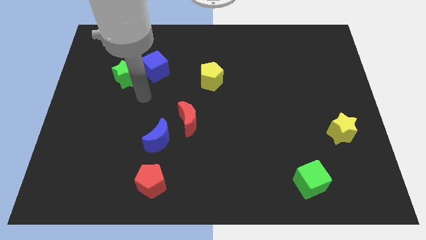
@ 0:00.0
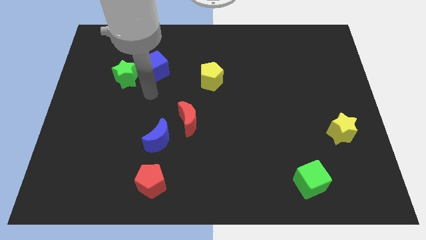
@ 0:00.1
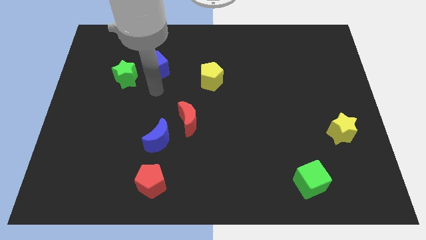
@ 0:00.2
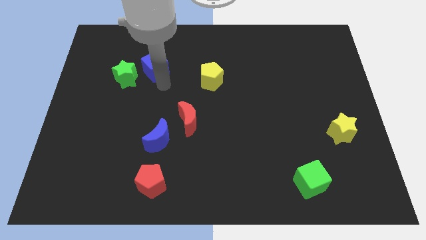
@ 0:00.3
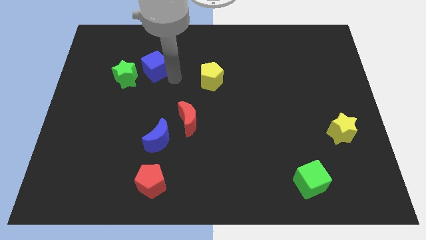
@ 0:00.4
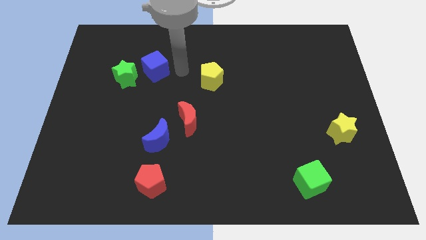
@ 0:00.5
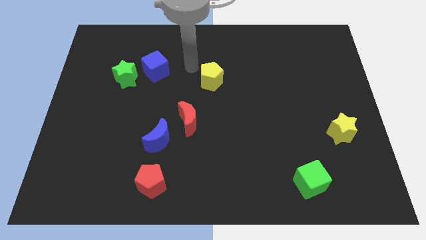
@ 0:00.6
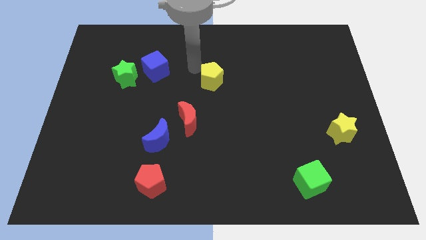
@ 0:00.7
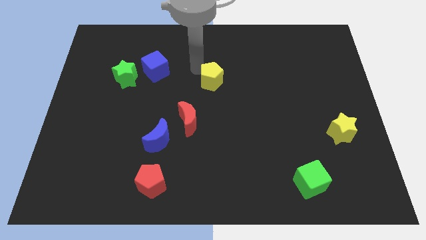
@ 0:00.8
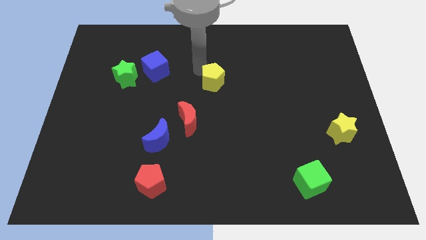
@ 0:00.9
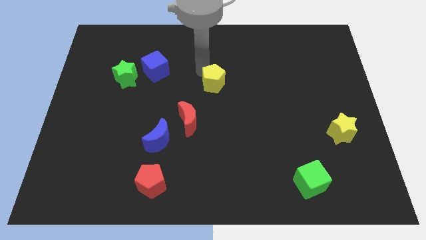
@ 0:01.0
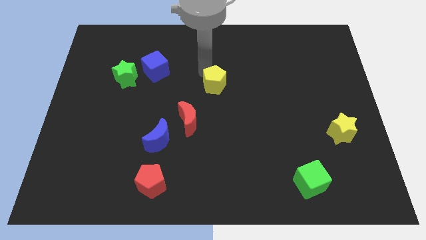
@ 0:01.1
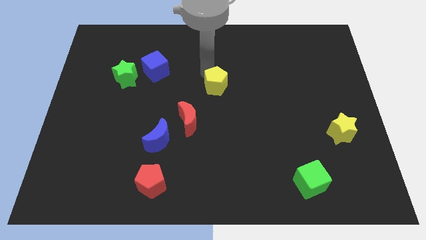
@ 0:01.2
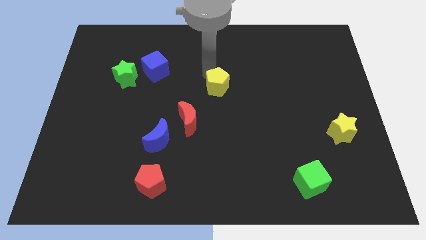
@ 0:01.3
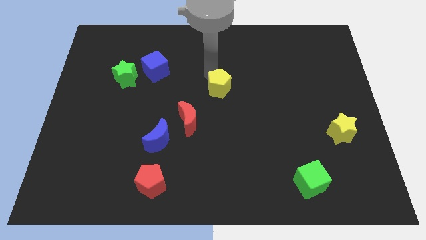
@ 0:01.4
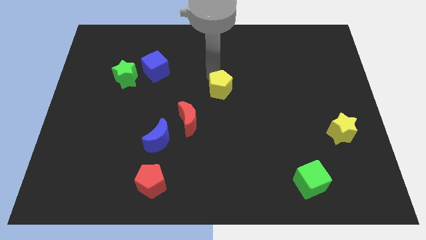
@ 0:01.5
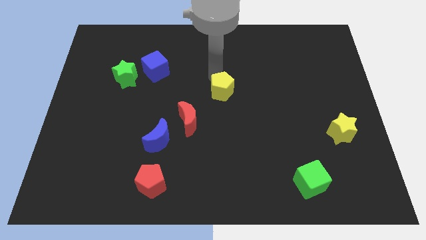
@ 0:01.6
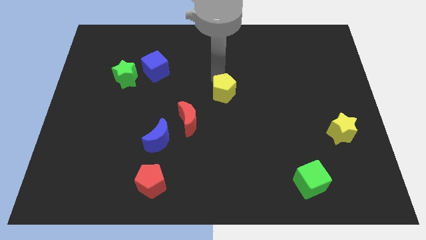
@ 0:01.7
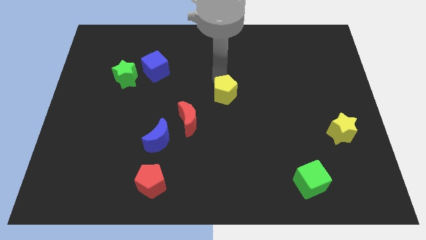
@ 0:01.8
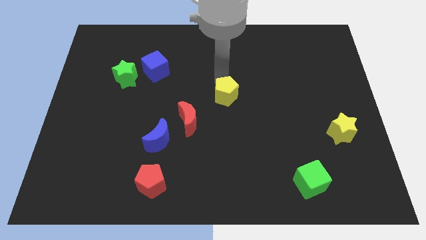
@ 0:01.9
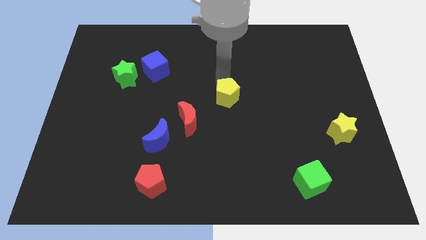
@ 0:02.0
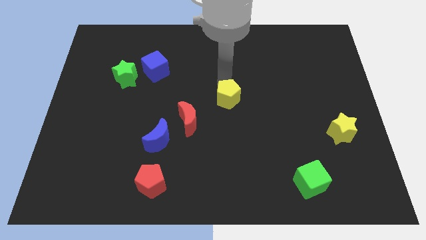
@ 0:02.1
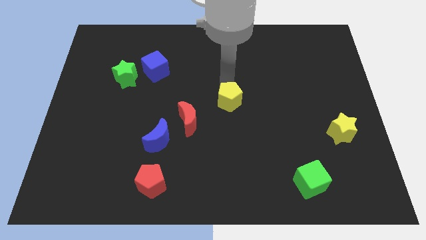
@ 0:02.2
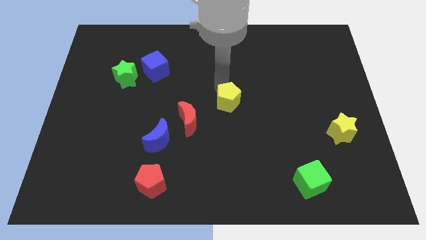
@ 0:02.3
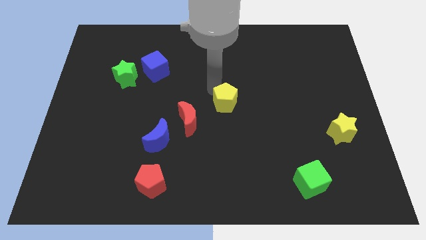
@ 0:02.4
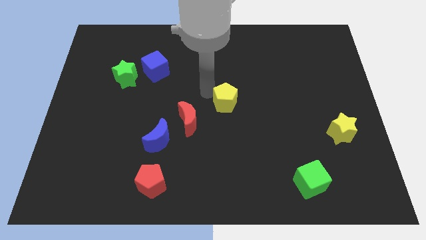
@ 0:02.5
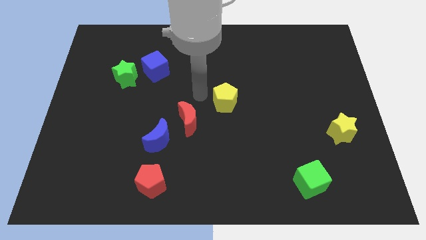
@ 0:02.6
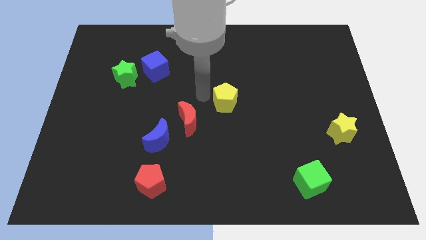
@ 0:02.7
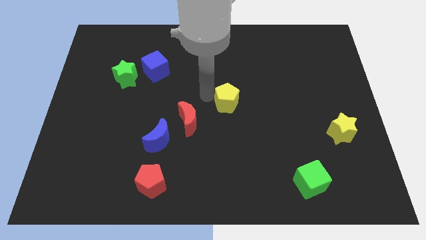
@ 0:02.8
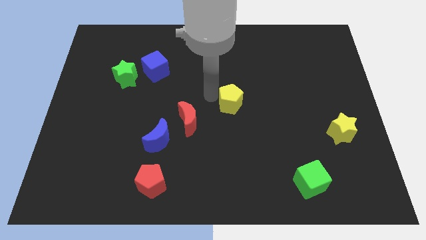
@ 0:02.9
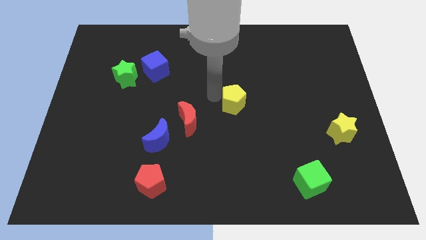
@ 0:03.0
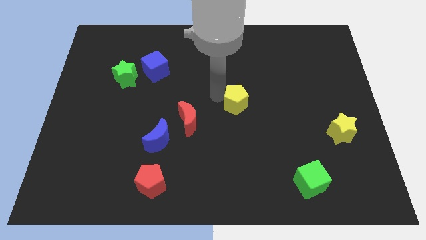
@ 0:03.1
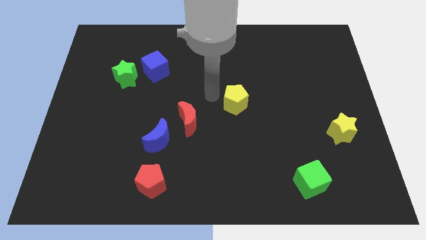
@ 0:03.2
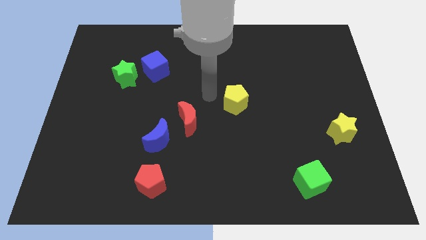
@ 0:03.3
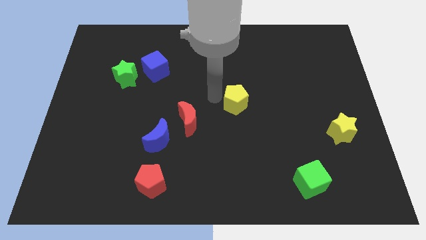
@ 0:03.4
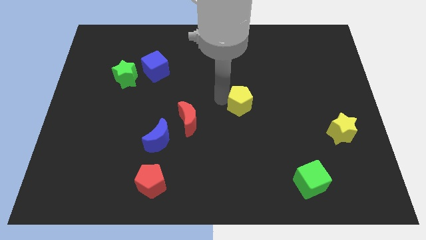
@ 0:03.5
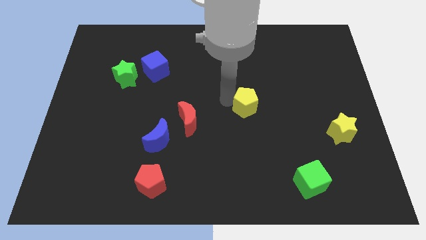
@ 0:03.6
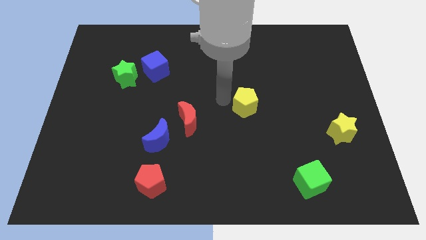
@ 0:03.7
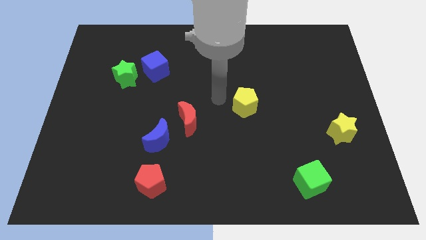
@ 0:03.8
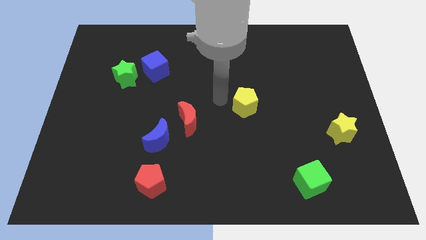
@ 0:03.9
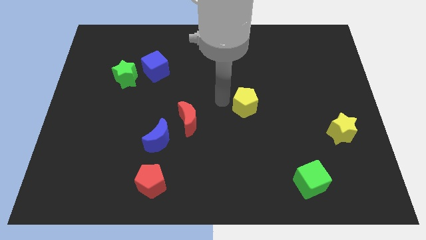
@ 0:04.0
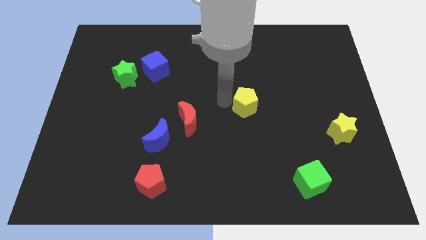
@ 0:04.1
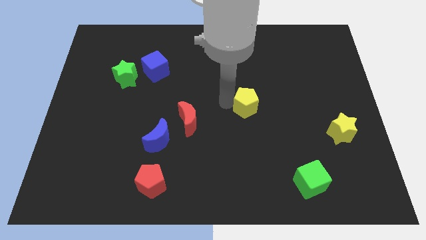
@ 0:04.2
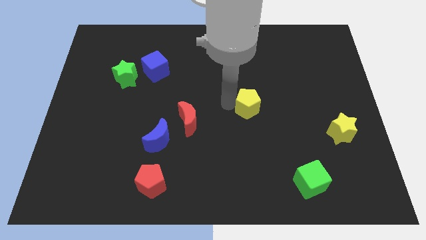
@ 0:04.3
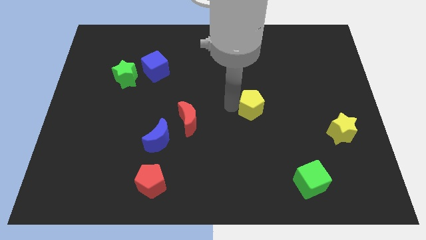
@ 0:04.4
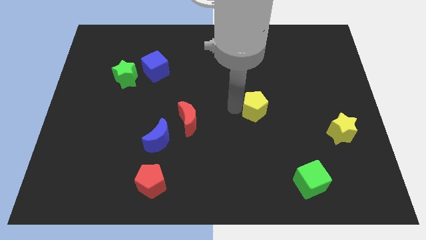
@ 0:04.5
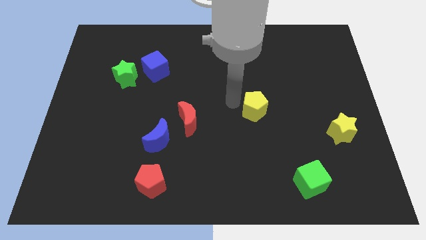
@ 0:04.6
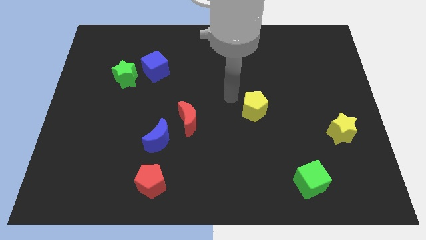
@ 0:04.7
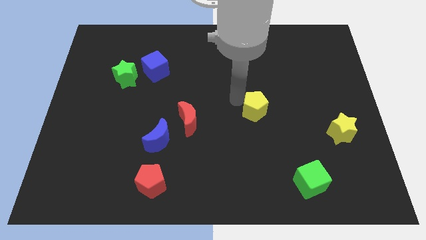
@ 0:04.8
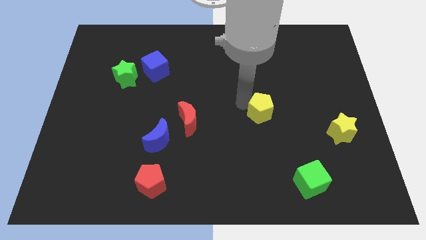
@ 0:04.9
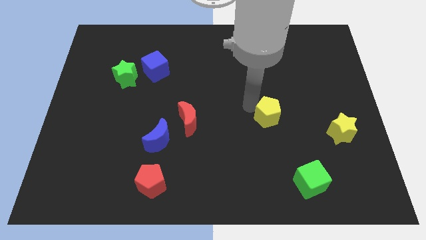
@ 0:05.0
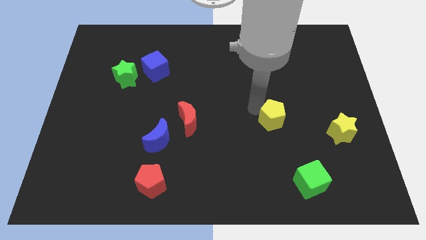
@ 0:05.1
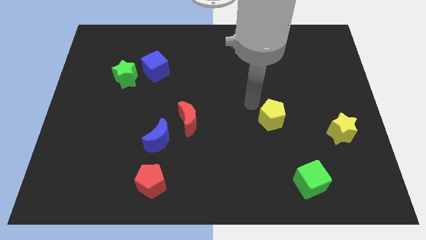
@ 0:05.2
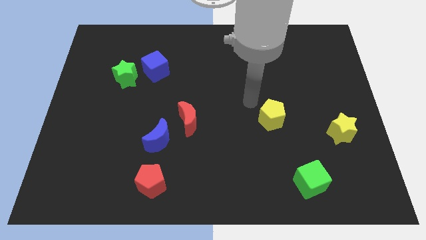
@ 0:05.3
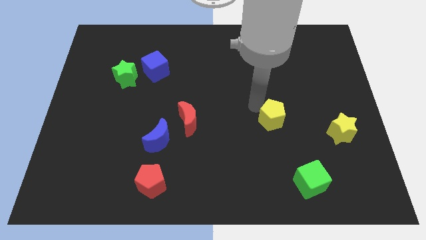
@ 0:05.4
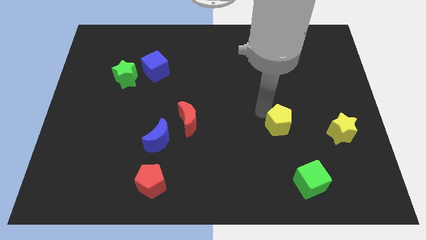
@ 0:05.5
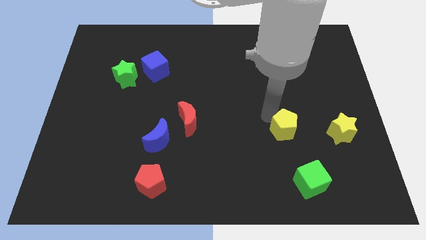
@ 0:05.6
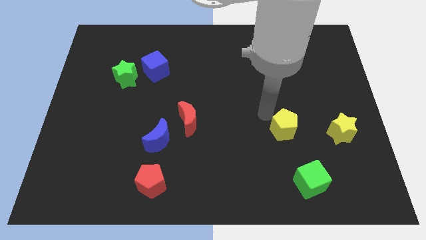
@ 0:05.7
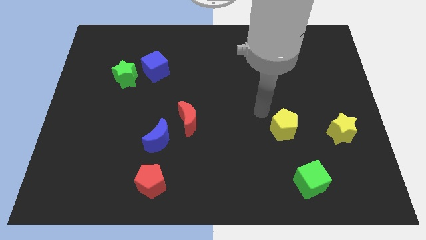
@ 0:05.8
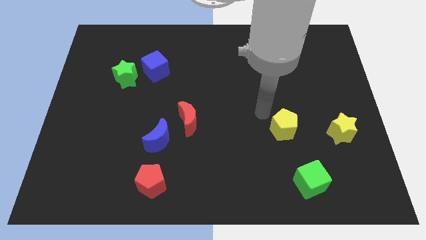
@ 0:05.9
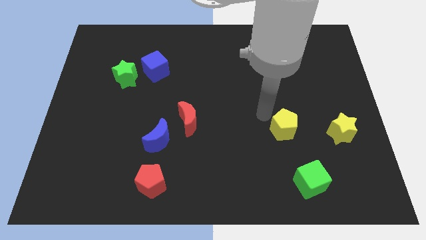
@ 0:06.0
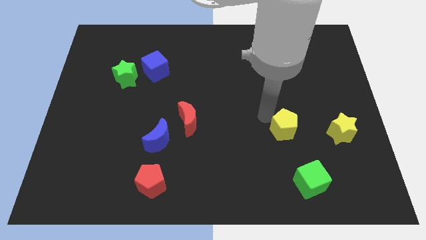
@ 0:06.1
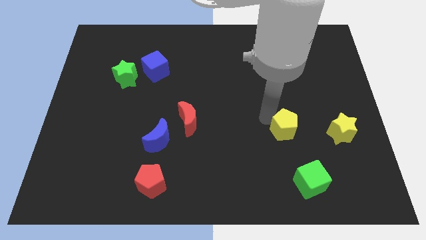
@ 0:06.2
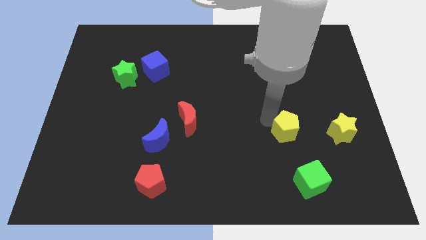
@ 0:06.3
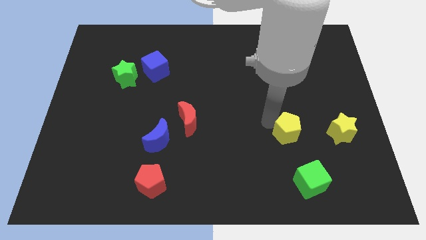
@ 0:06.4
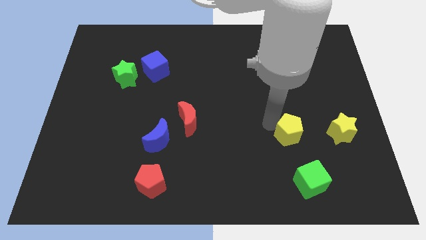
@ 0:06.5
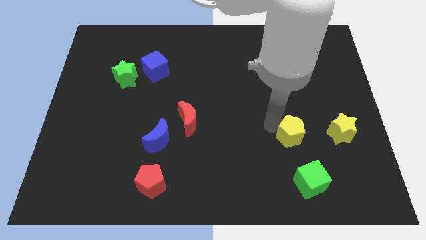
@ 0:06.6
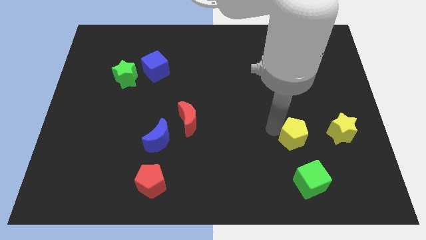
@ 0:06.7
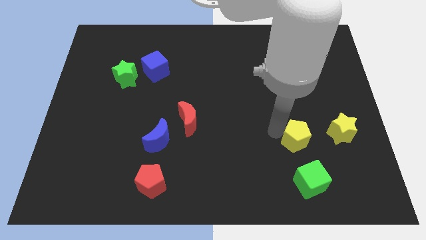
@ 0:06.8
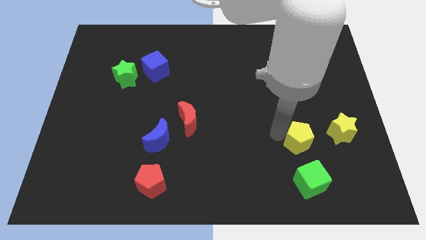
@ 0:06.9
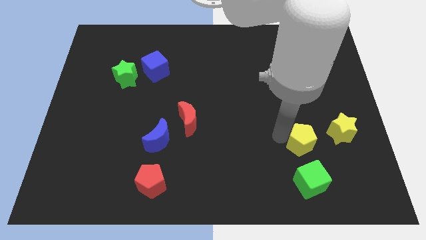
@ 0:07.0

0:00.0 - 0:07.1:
slide the yellow pentagon to the bottom left of the yellow star
